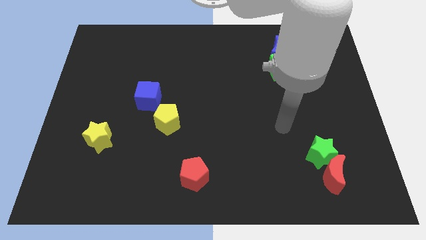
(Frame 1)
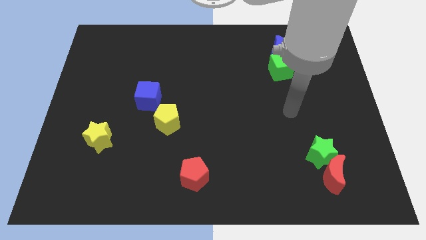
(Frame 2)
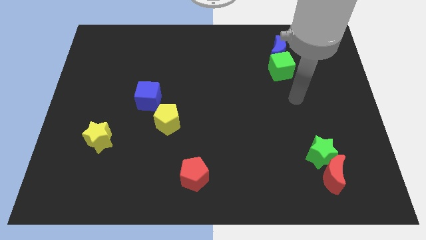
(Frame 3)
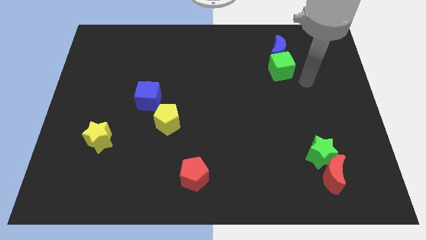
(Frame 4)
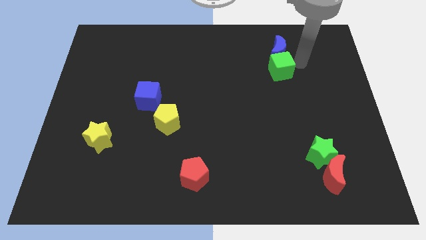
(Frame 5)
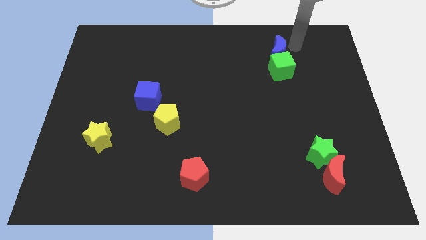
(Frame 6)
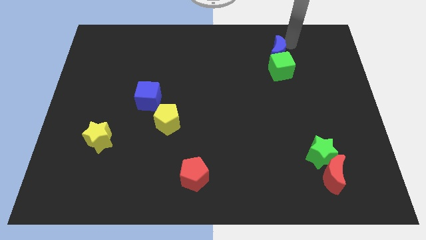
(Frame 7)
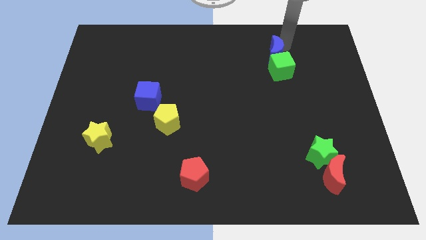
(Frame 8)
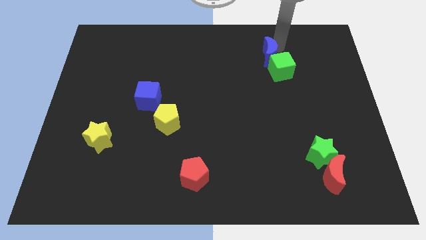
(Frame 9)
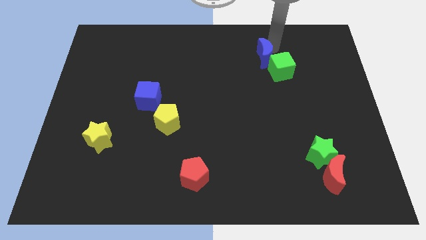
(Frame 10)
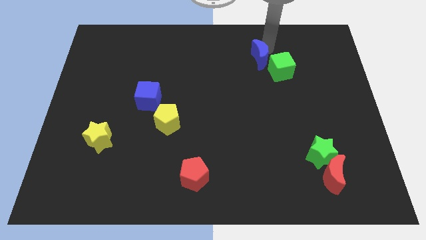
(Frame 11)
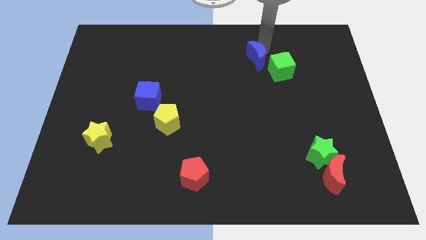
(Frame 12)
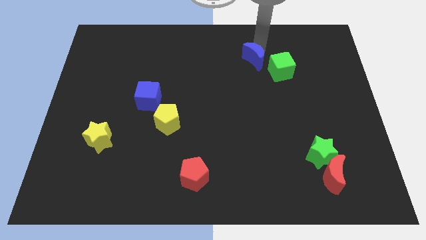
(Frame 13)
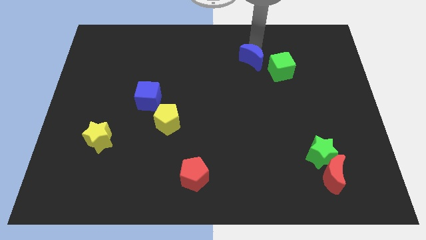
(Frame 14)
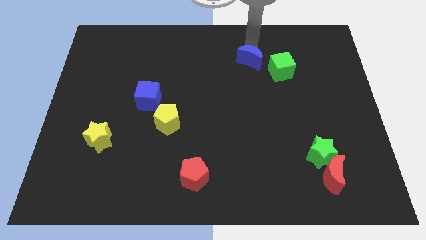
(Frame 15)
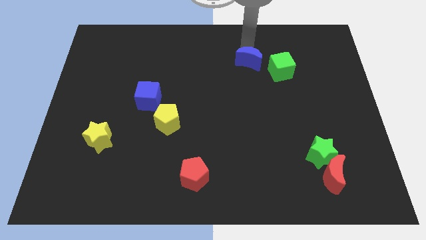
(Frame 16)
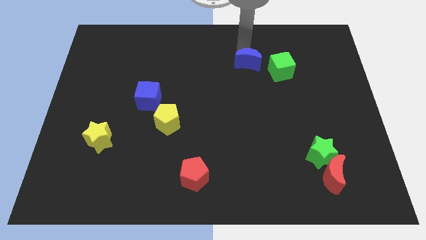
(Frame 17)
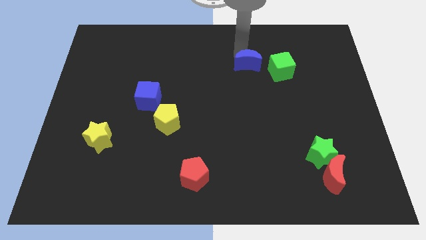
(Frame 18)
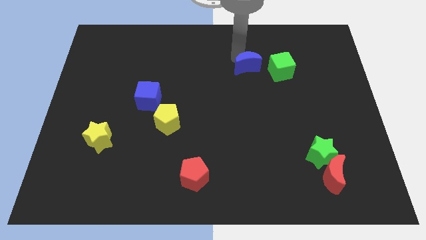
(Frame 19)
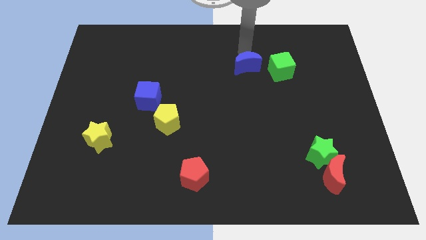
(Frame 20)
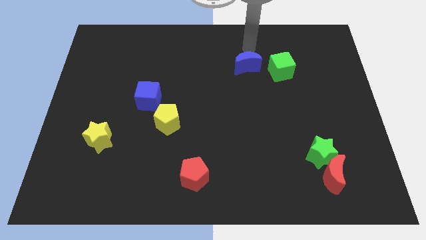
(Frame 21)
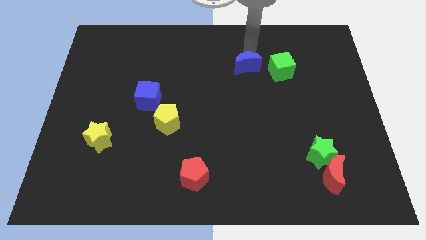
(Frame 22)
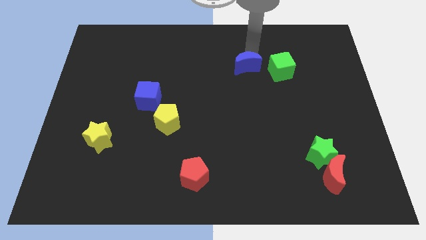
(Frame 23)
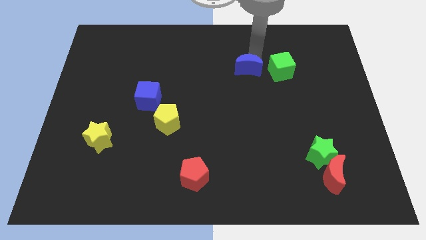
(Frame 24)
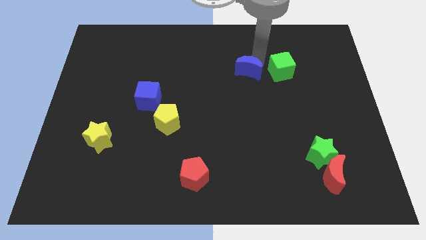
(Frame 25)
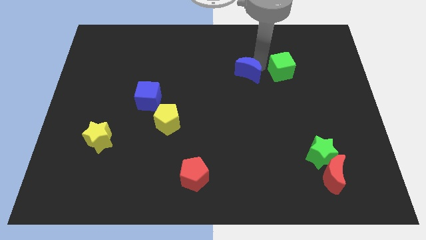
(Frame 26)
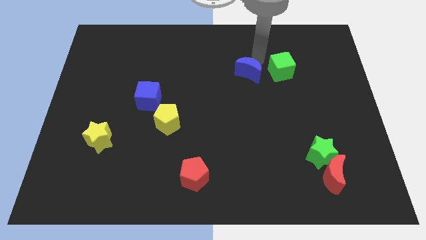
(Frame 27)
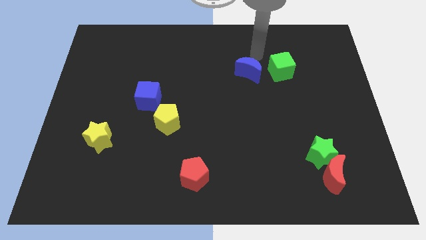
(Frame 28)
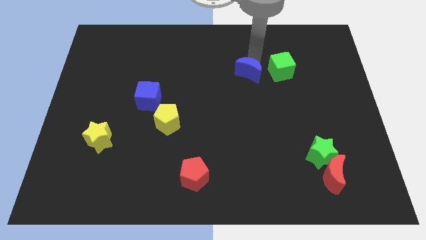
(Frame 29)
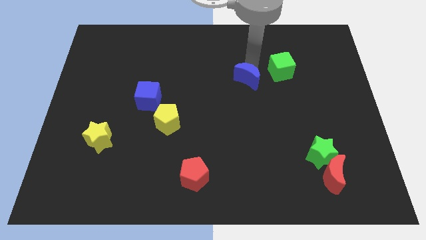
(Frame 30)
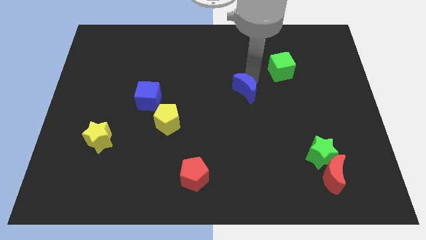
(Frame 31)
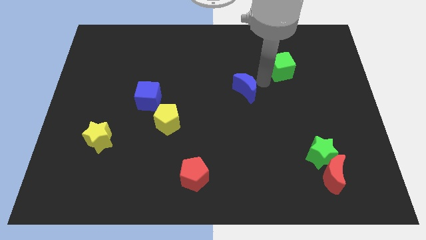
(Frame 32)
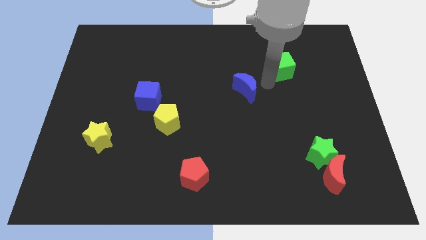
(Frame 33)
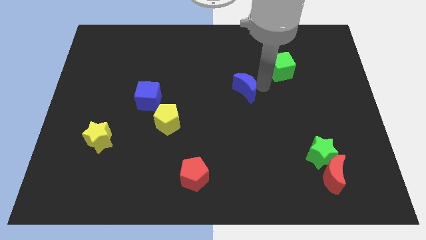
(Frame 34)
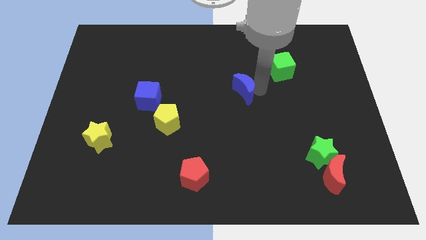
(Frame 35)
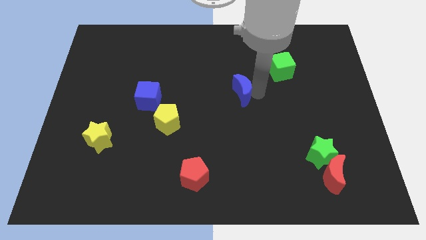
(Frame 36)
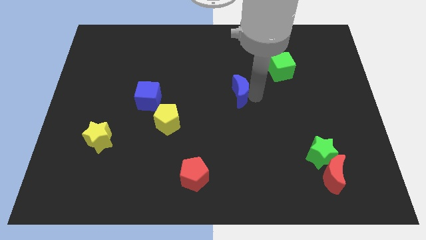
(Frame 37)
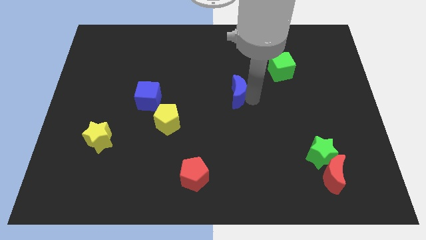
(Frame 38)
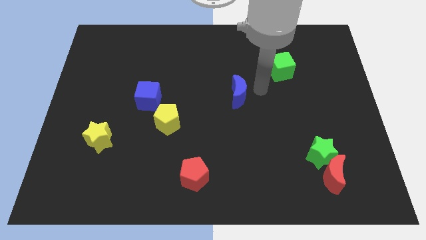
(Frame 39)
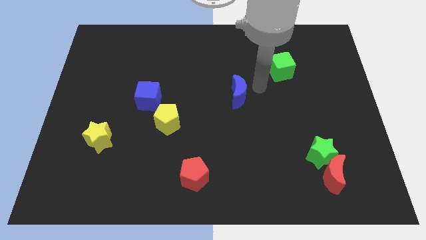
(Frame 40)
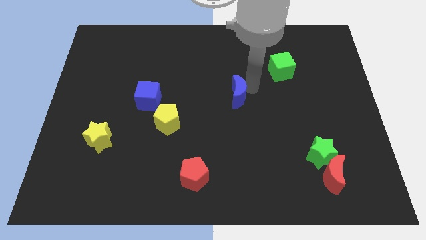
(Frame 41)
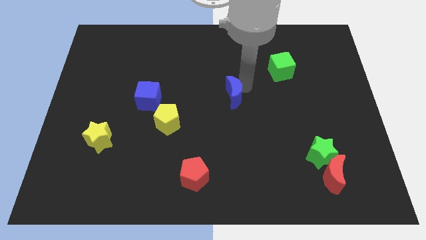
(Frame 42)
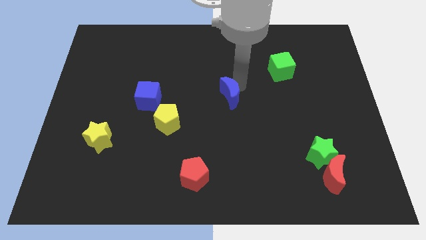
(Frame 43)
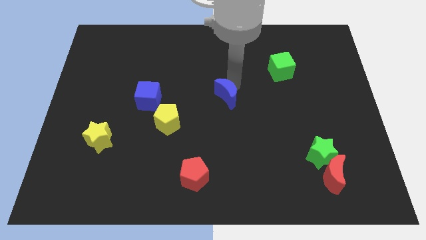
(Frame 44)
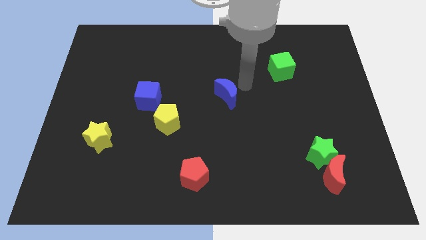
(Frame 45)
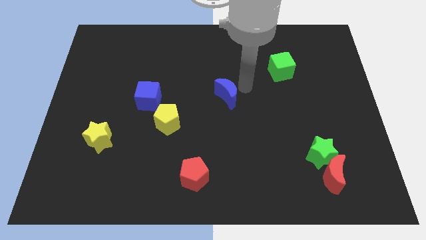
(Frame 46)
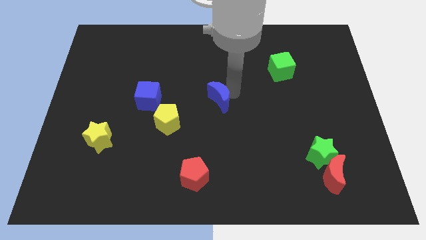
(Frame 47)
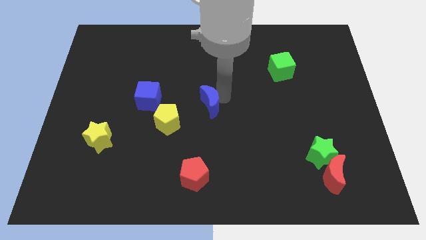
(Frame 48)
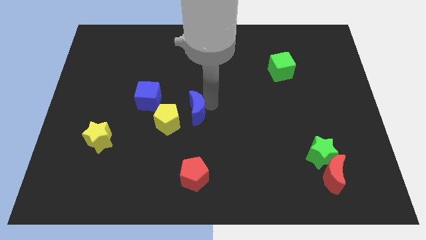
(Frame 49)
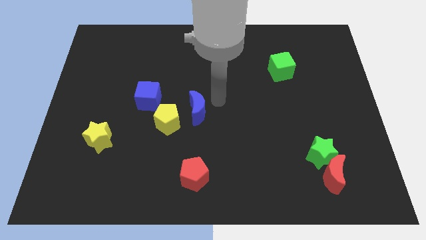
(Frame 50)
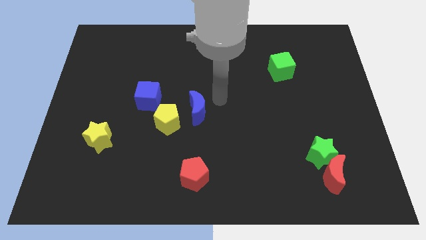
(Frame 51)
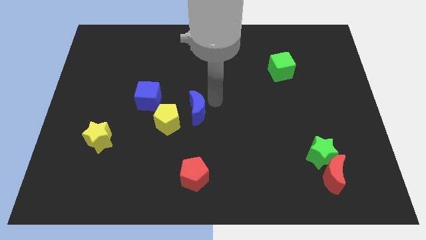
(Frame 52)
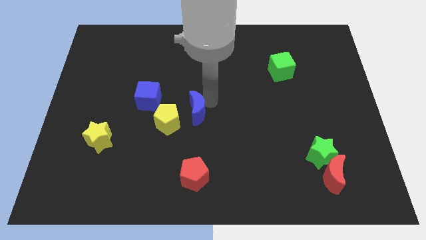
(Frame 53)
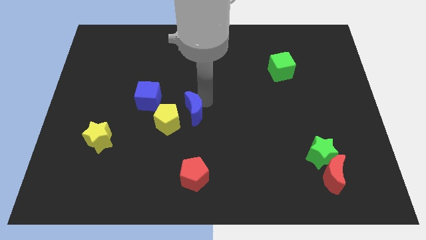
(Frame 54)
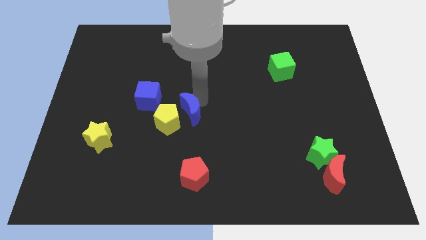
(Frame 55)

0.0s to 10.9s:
put the blue moon to the yellow pentagon

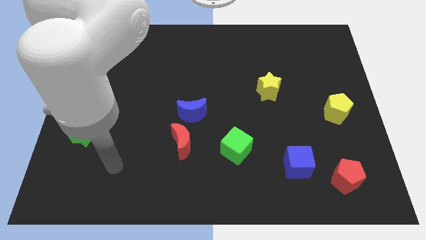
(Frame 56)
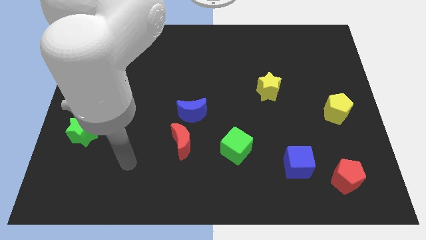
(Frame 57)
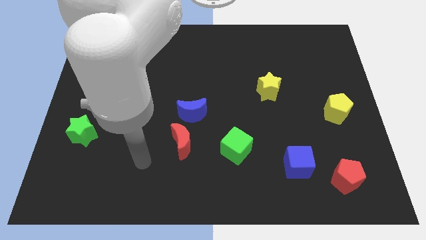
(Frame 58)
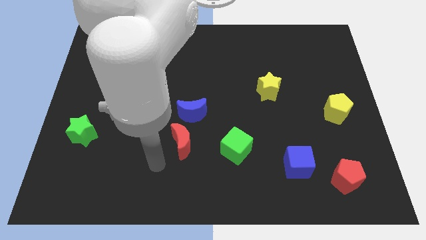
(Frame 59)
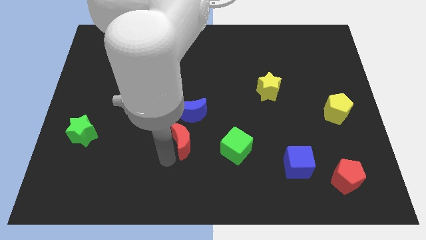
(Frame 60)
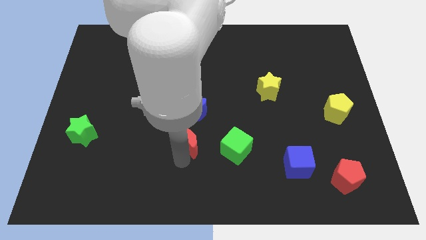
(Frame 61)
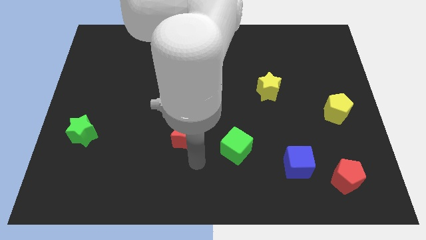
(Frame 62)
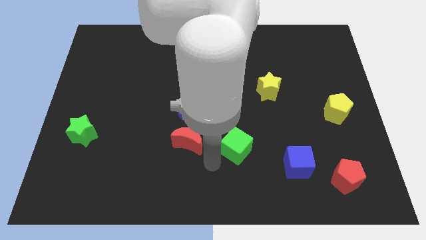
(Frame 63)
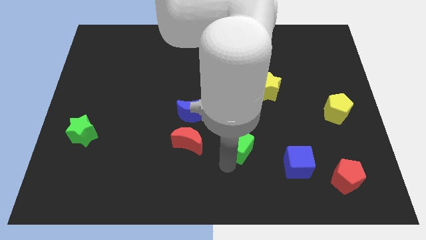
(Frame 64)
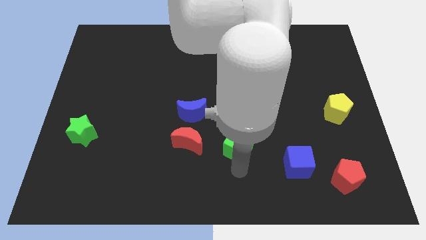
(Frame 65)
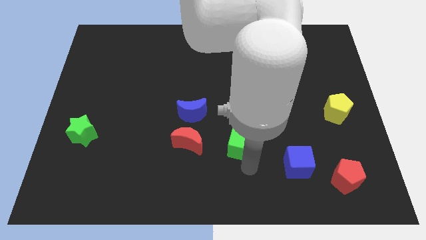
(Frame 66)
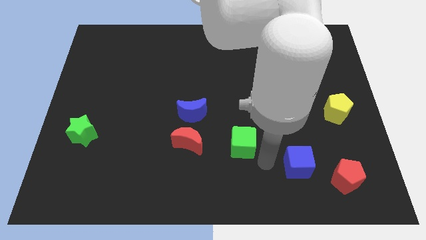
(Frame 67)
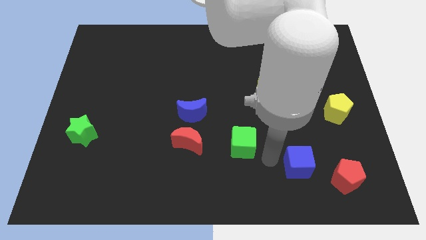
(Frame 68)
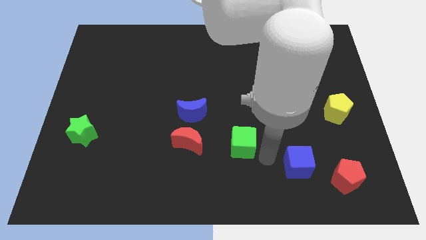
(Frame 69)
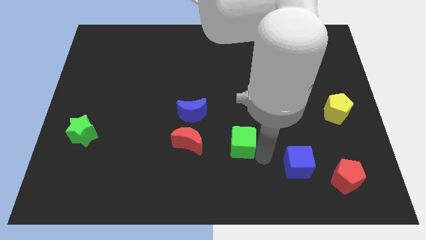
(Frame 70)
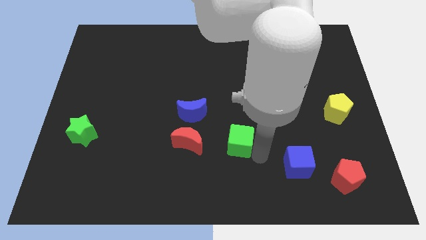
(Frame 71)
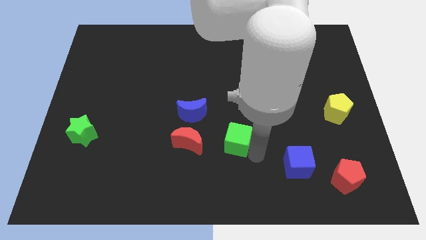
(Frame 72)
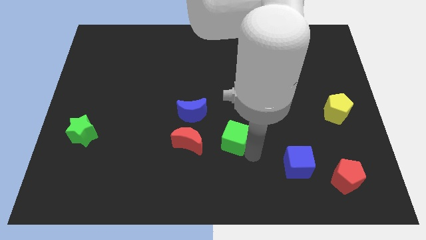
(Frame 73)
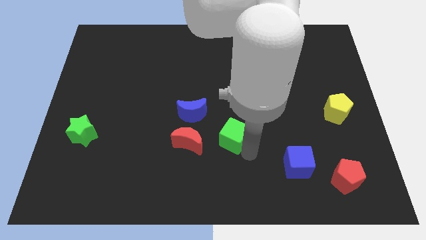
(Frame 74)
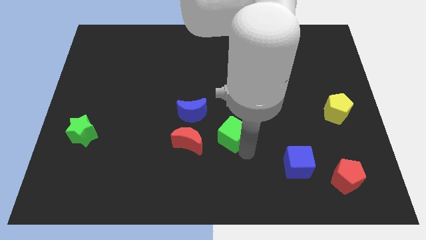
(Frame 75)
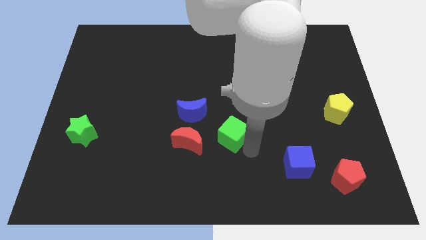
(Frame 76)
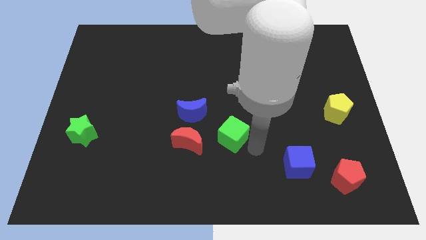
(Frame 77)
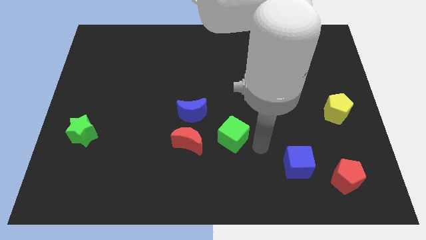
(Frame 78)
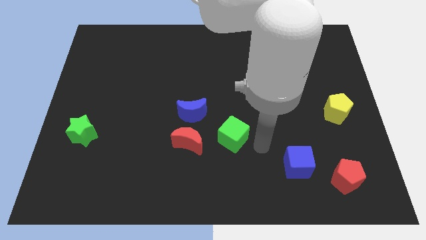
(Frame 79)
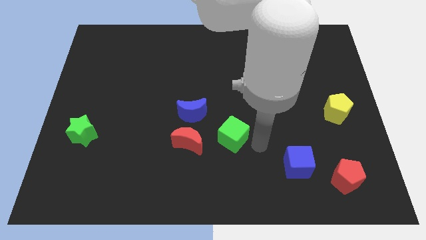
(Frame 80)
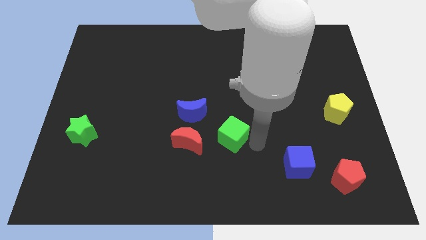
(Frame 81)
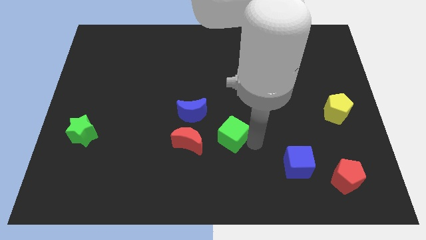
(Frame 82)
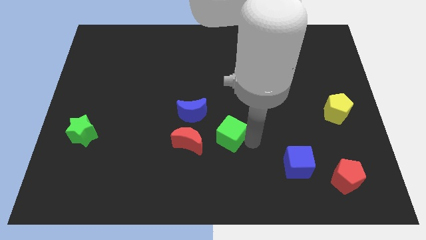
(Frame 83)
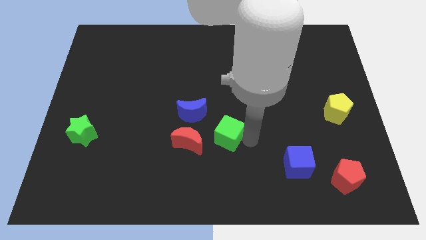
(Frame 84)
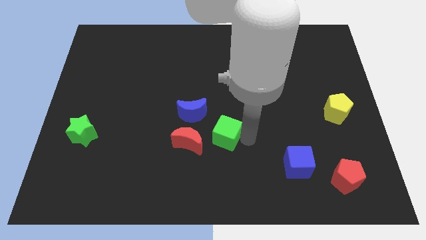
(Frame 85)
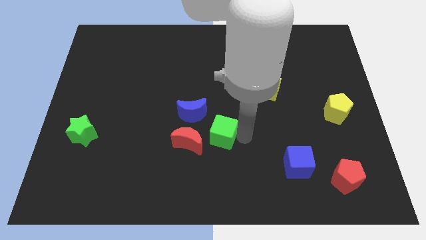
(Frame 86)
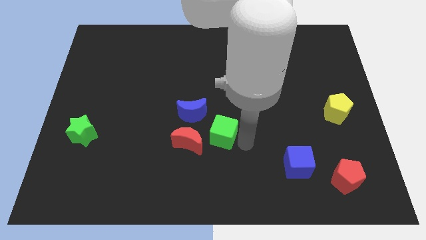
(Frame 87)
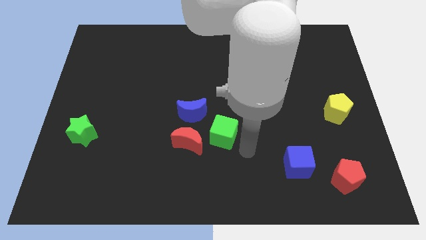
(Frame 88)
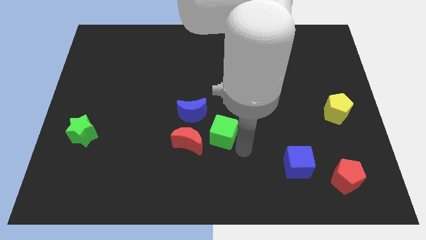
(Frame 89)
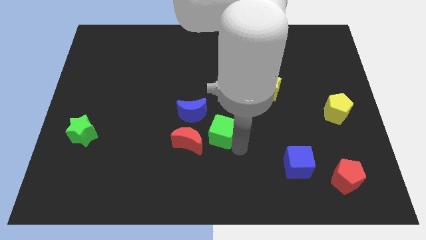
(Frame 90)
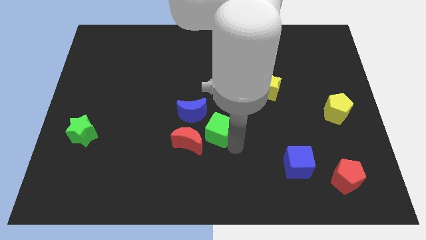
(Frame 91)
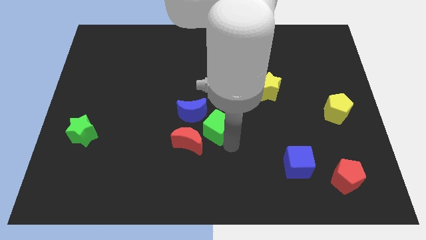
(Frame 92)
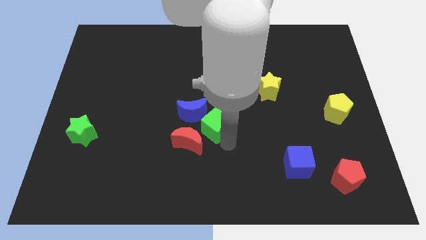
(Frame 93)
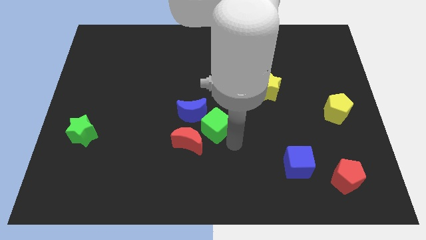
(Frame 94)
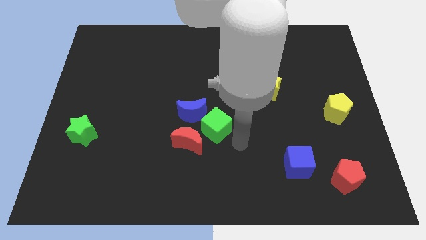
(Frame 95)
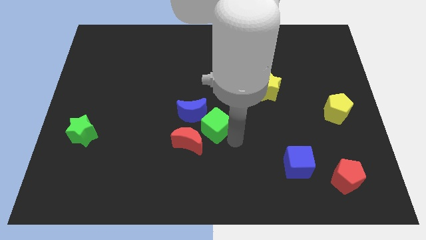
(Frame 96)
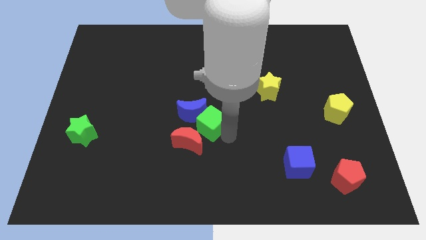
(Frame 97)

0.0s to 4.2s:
push the green cube close to the blue moon
